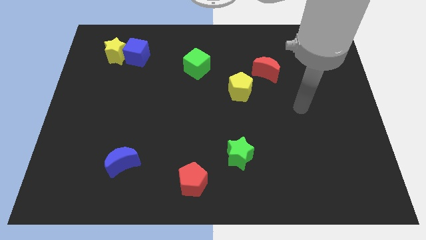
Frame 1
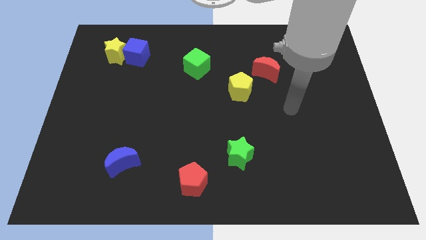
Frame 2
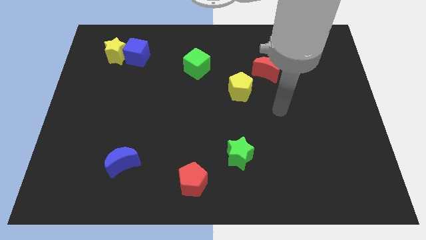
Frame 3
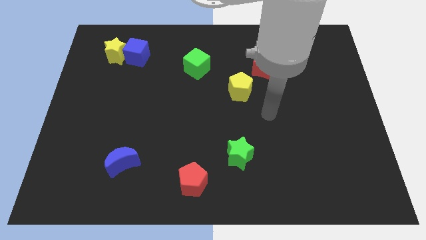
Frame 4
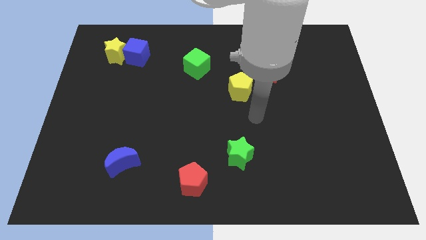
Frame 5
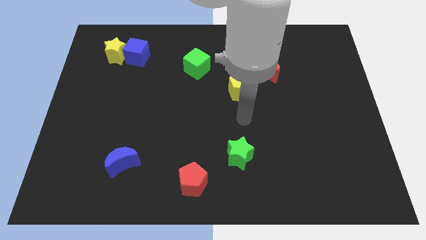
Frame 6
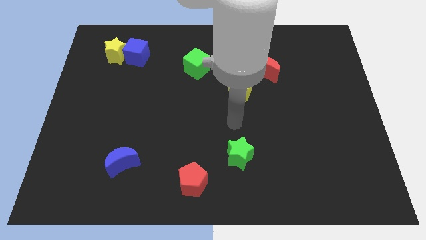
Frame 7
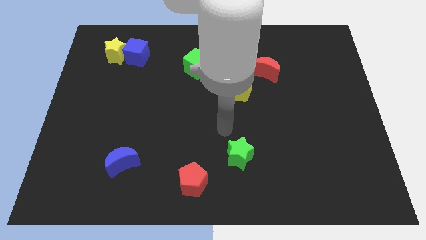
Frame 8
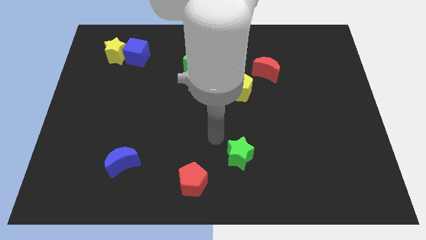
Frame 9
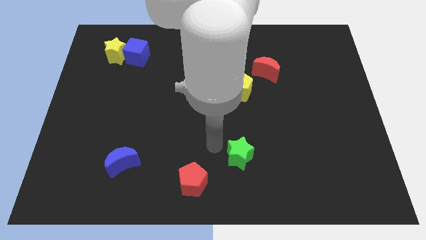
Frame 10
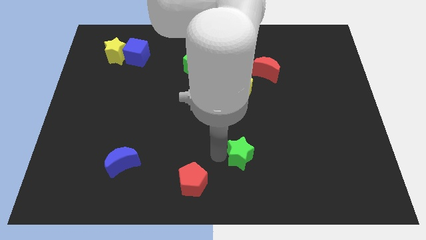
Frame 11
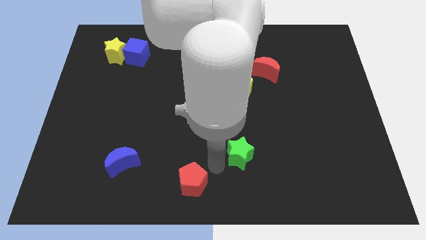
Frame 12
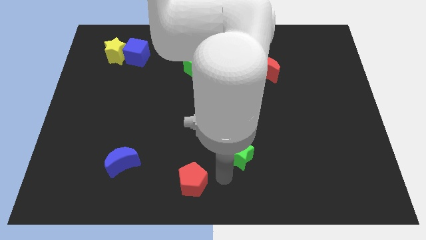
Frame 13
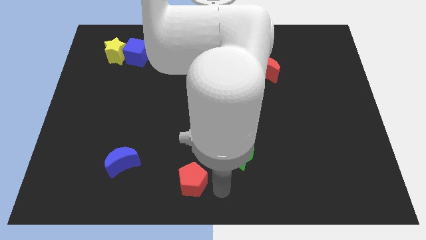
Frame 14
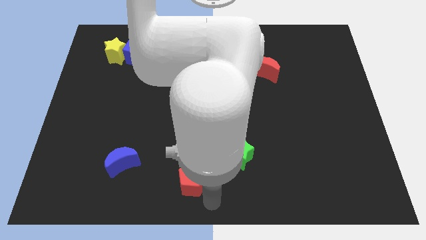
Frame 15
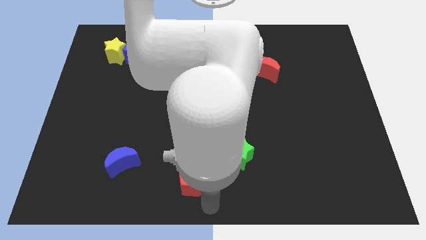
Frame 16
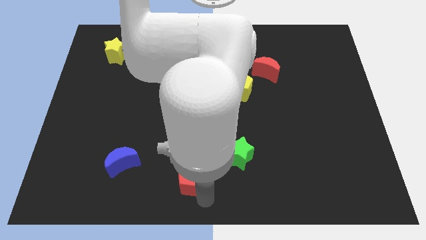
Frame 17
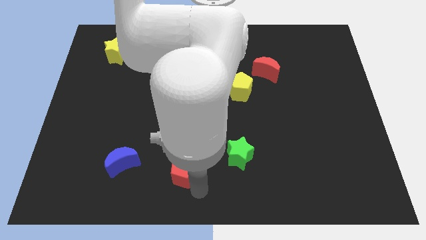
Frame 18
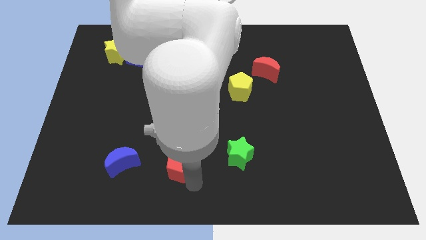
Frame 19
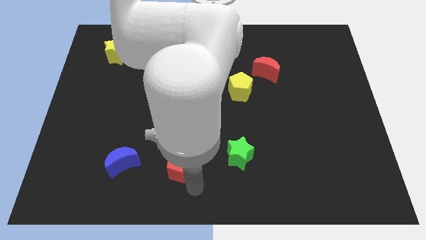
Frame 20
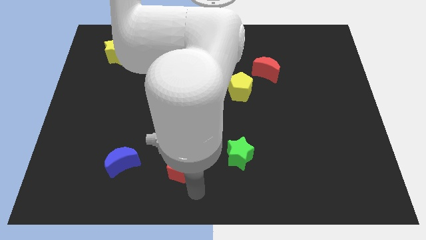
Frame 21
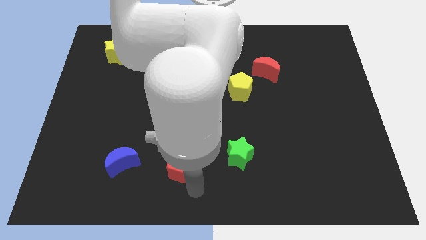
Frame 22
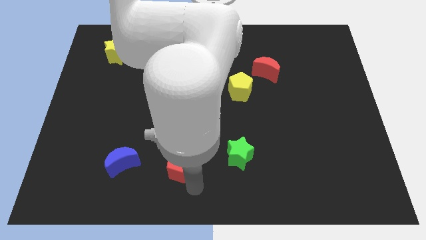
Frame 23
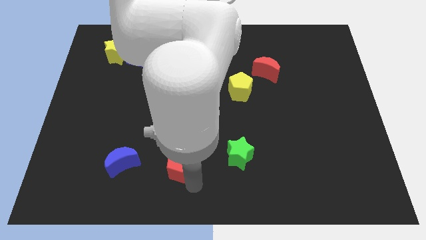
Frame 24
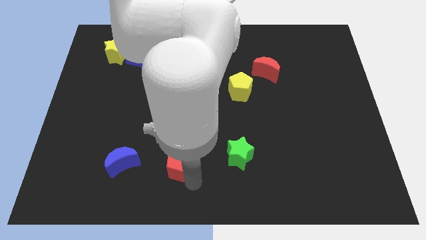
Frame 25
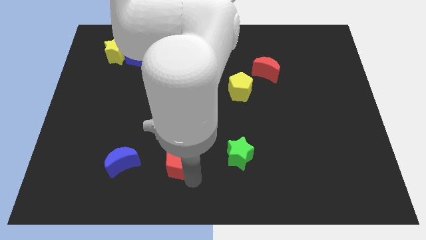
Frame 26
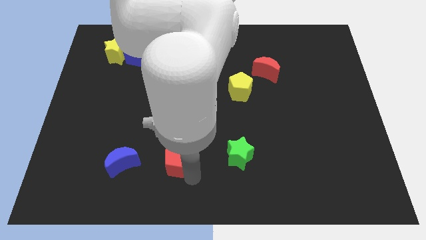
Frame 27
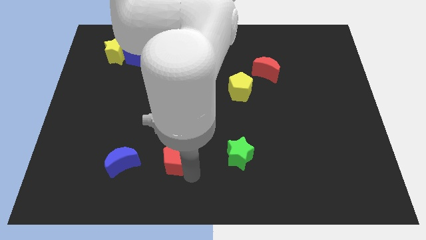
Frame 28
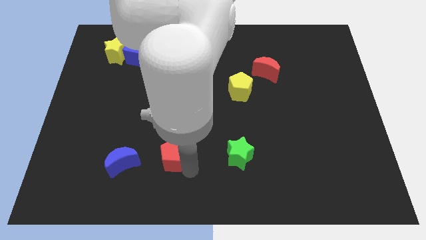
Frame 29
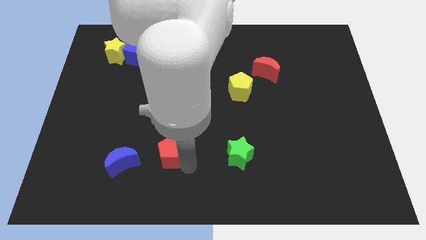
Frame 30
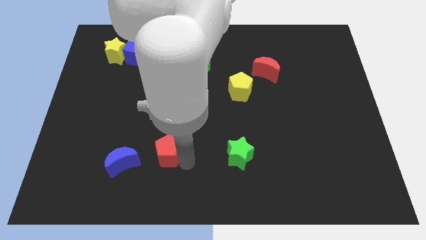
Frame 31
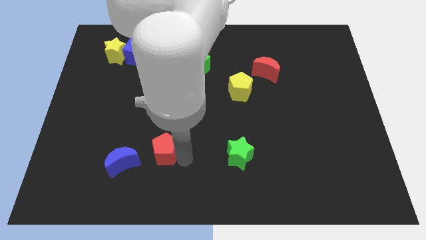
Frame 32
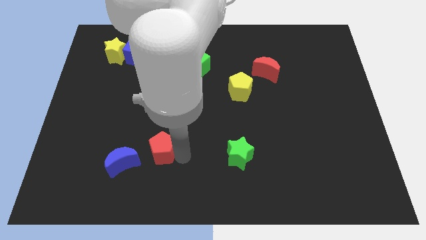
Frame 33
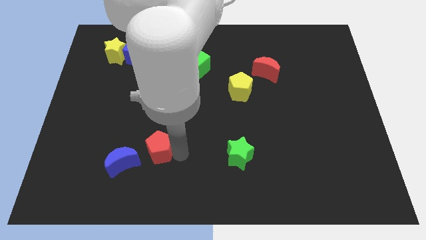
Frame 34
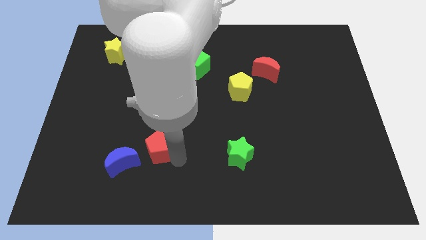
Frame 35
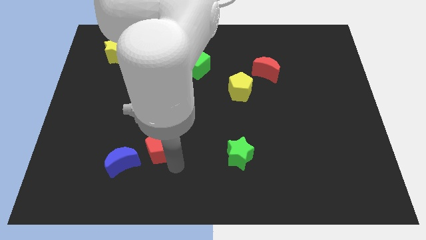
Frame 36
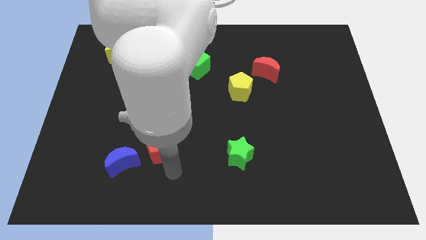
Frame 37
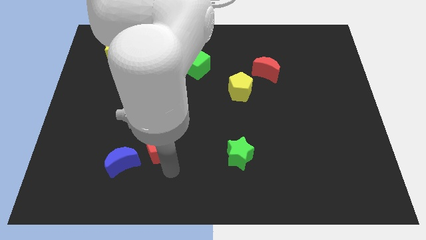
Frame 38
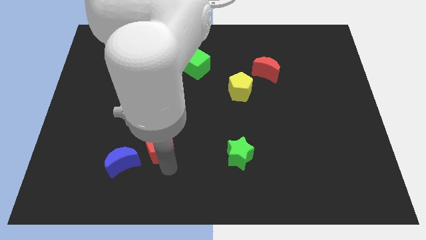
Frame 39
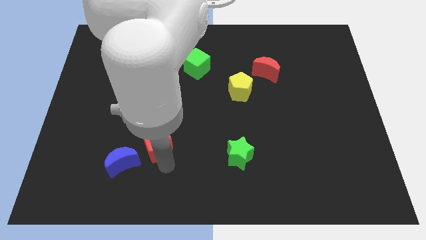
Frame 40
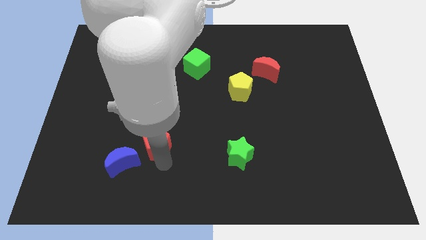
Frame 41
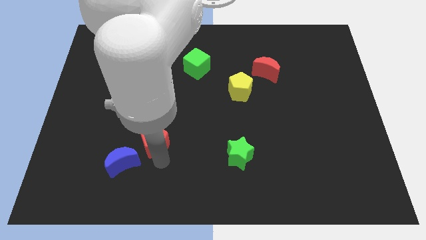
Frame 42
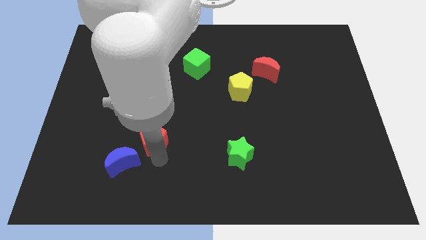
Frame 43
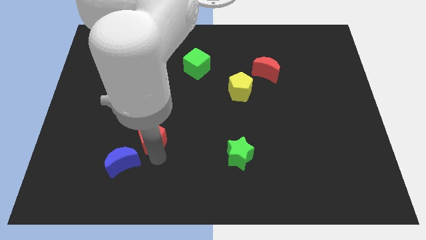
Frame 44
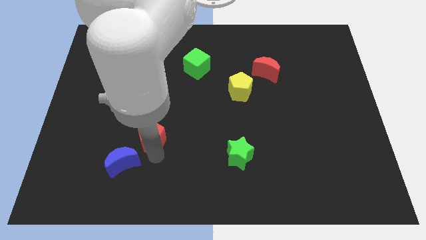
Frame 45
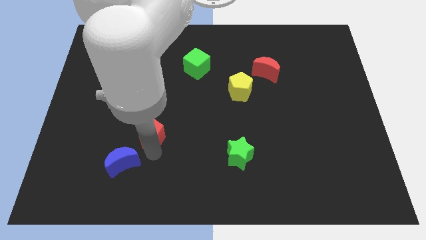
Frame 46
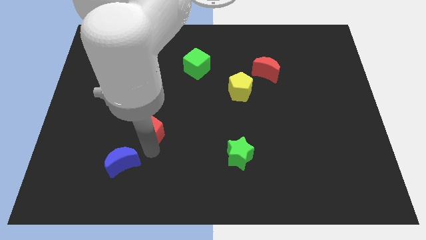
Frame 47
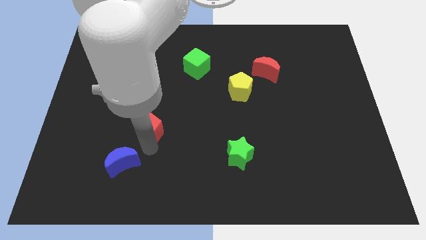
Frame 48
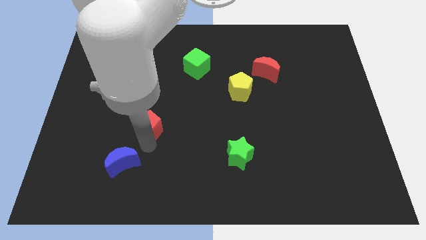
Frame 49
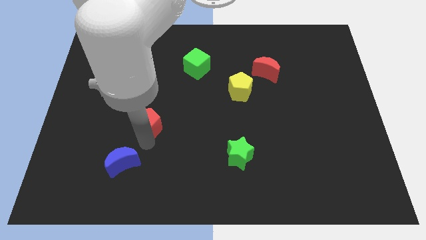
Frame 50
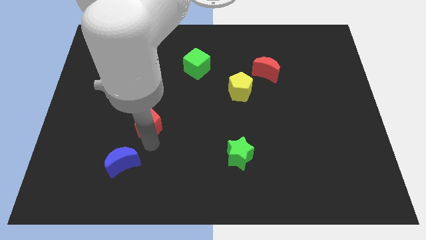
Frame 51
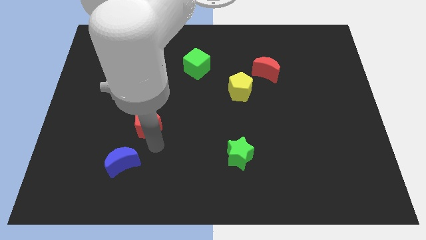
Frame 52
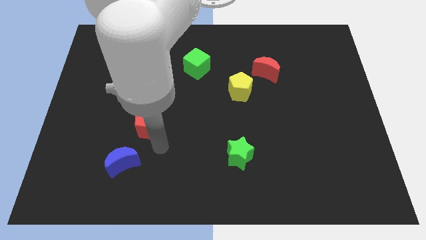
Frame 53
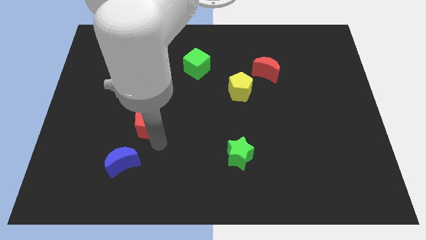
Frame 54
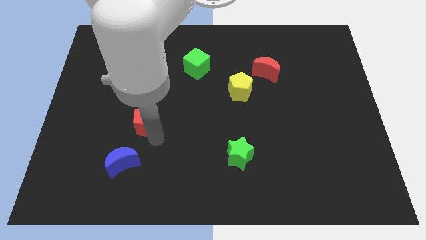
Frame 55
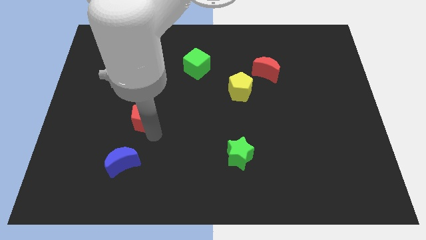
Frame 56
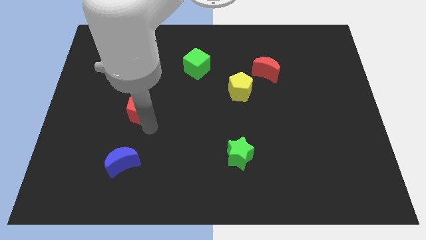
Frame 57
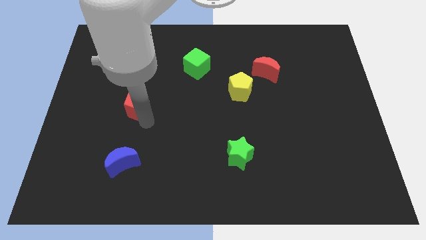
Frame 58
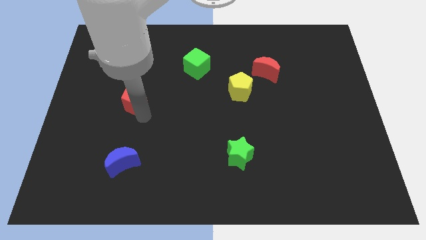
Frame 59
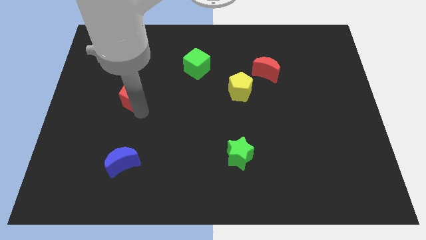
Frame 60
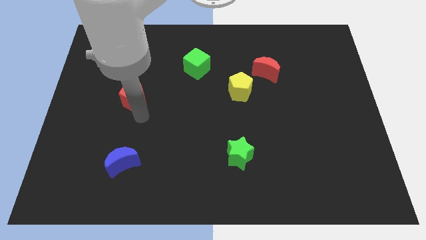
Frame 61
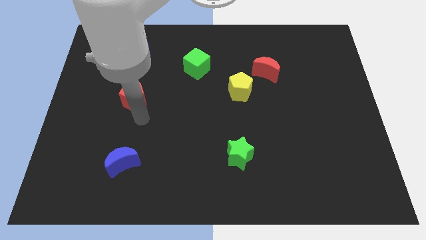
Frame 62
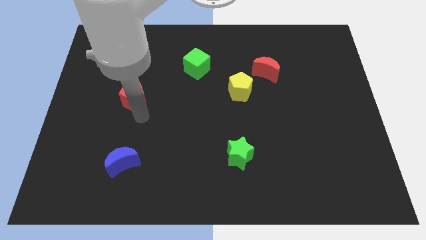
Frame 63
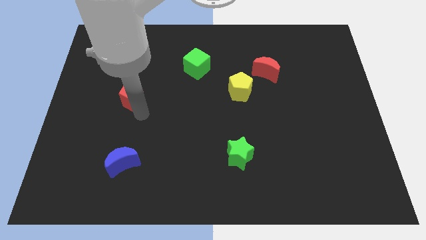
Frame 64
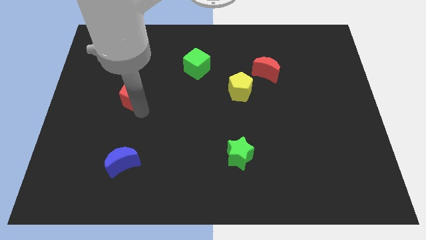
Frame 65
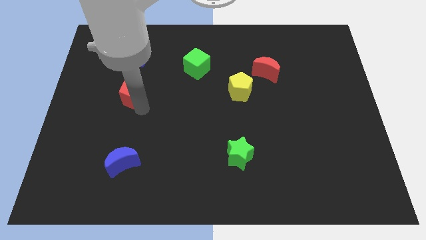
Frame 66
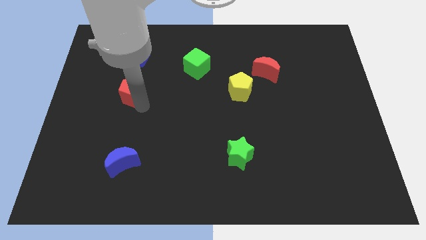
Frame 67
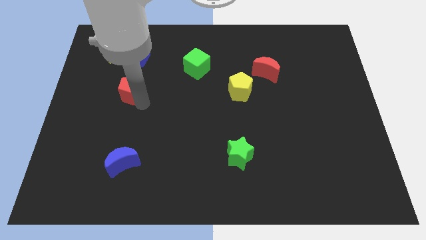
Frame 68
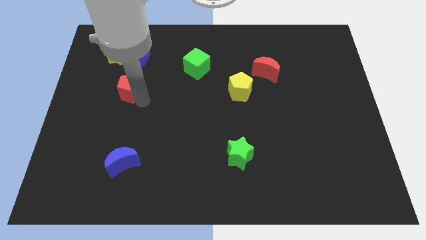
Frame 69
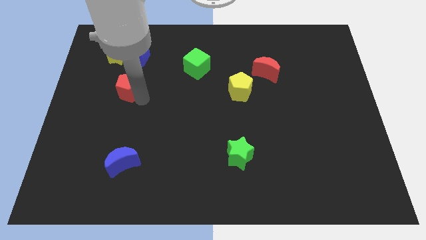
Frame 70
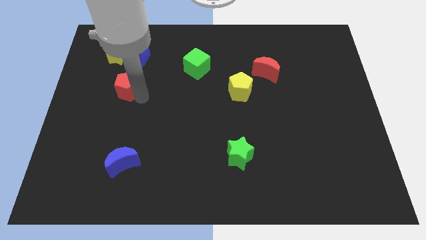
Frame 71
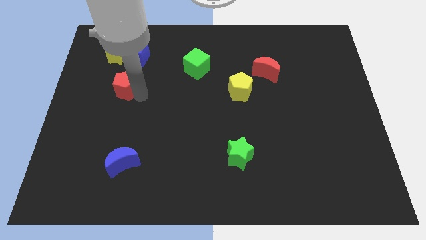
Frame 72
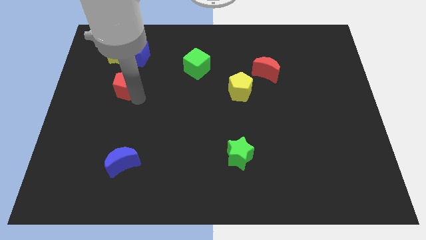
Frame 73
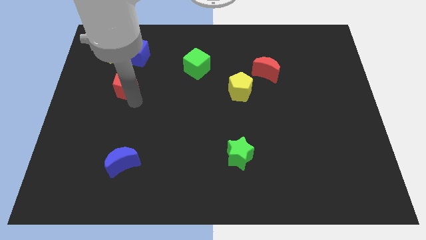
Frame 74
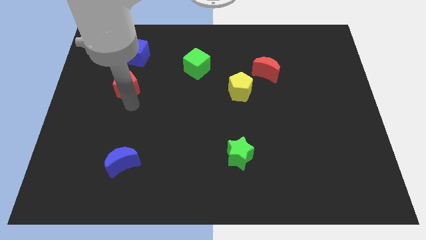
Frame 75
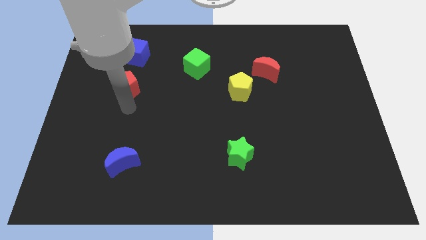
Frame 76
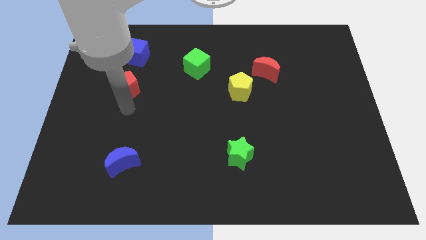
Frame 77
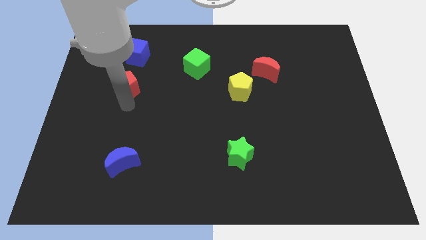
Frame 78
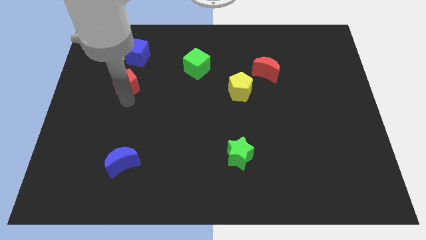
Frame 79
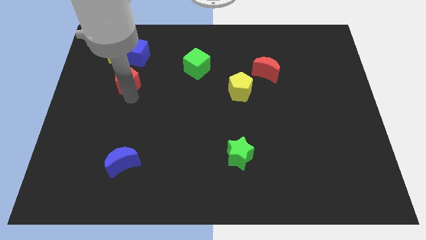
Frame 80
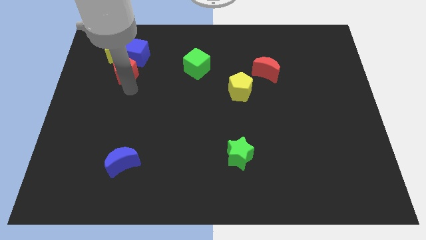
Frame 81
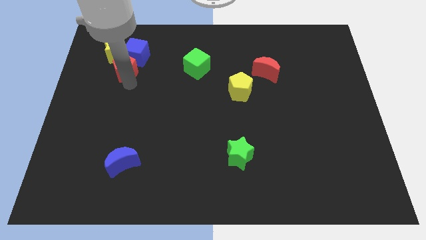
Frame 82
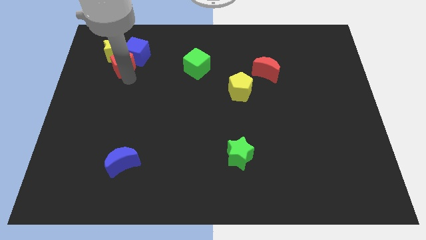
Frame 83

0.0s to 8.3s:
put the red pentagon to the yellow star
